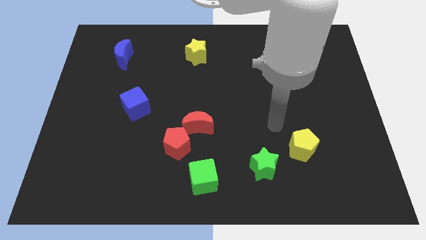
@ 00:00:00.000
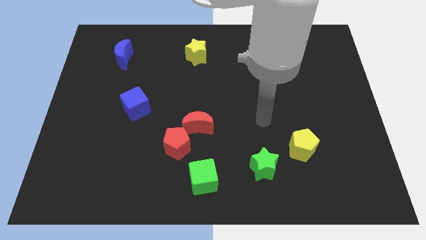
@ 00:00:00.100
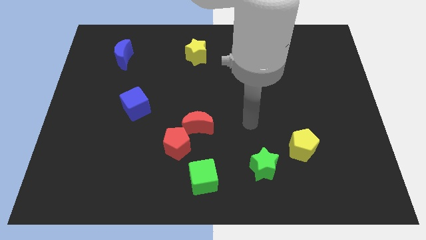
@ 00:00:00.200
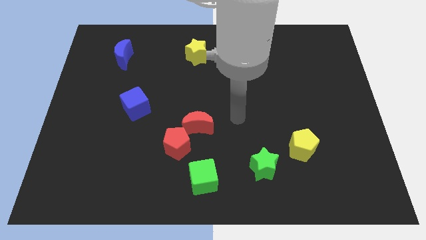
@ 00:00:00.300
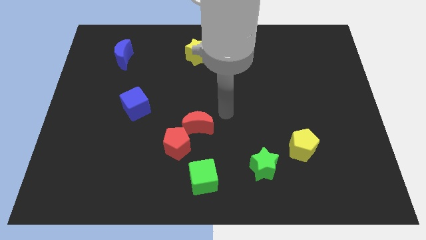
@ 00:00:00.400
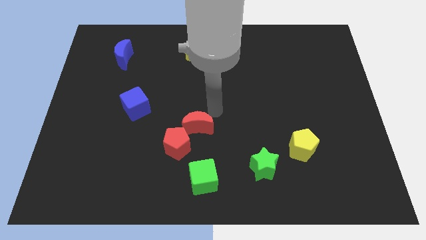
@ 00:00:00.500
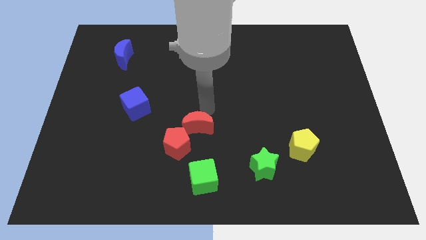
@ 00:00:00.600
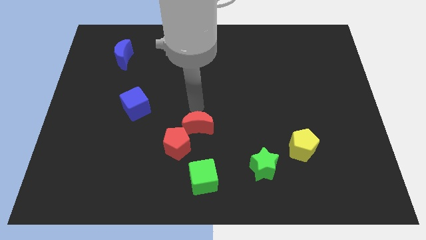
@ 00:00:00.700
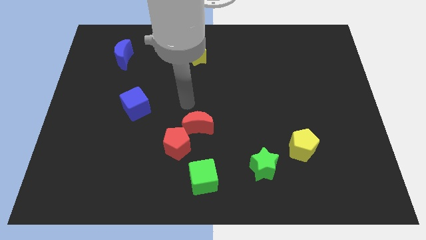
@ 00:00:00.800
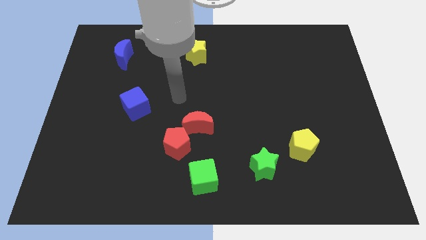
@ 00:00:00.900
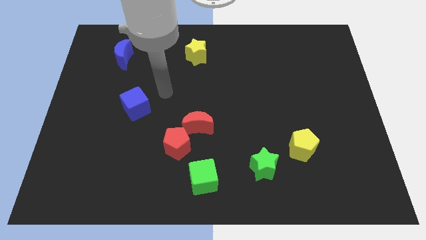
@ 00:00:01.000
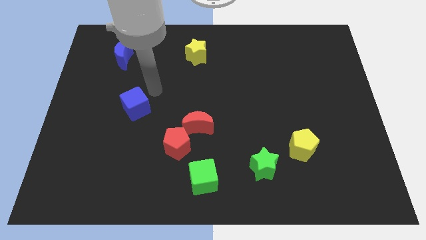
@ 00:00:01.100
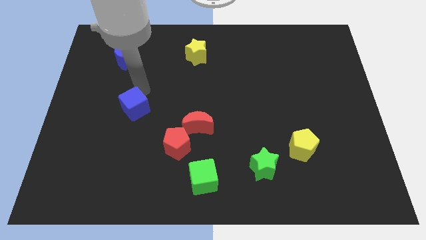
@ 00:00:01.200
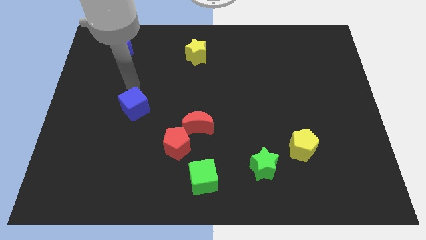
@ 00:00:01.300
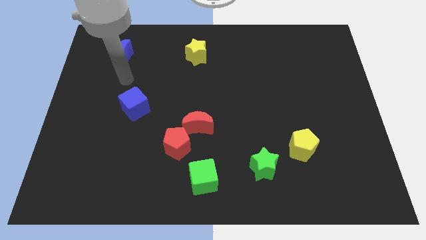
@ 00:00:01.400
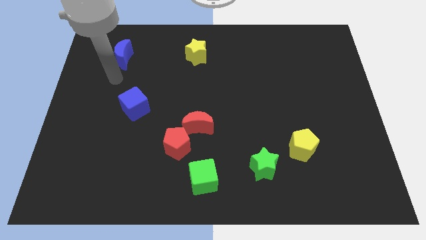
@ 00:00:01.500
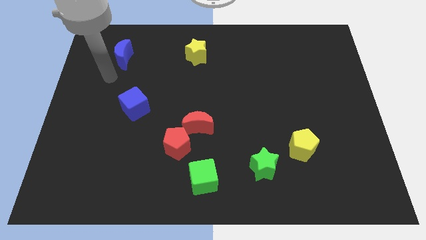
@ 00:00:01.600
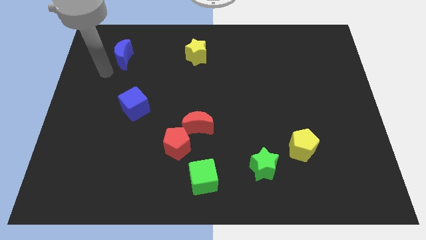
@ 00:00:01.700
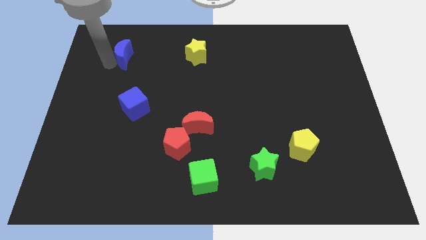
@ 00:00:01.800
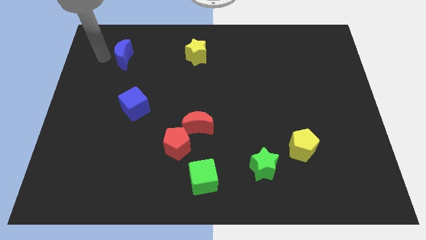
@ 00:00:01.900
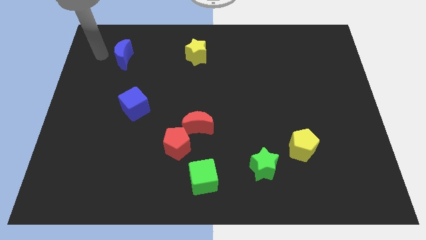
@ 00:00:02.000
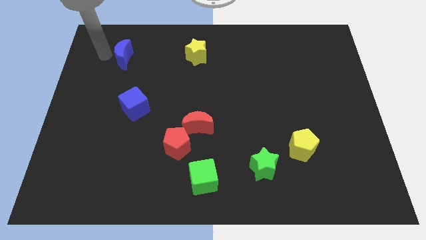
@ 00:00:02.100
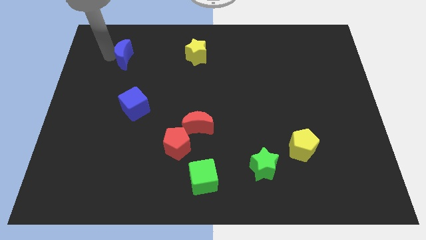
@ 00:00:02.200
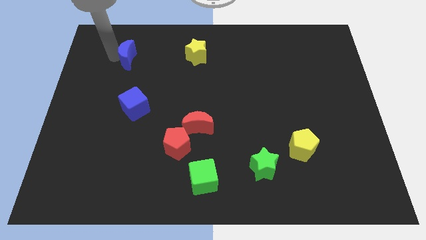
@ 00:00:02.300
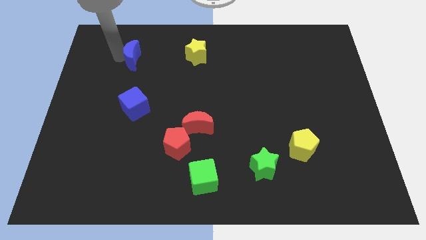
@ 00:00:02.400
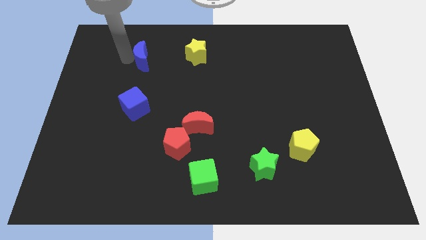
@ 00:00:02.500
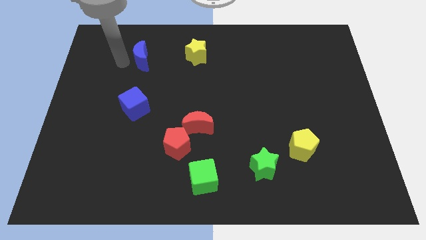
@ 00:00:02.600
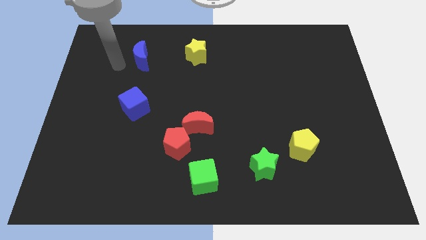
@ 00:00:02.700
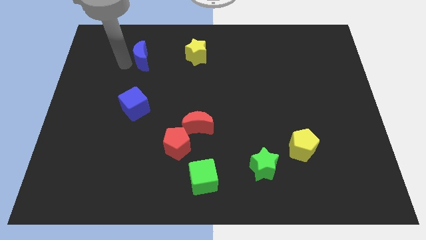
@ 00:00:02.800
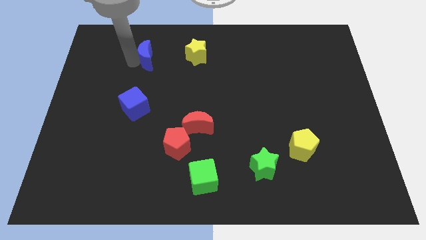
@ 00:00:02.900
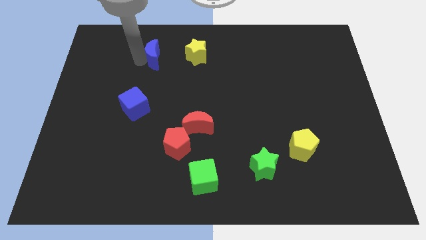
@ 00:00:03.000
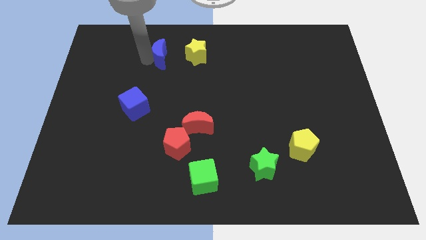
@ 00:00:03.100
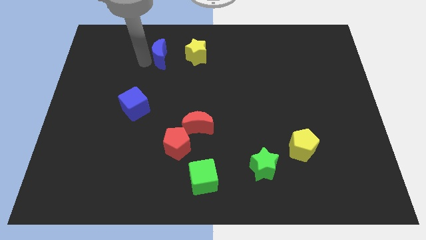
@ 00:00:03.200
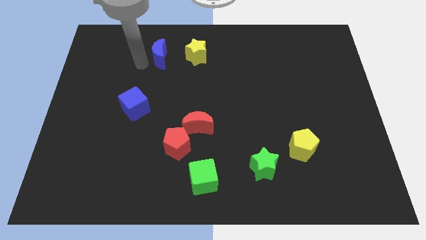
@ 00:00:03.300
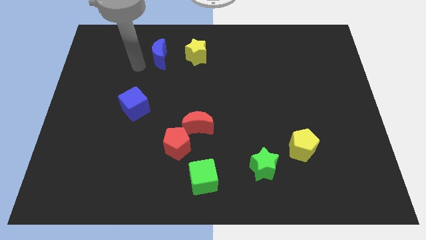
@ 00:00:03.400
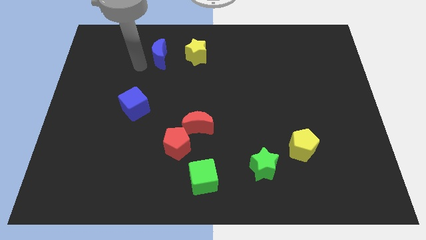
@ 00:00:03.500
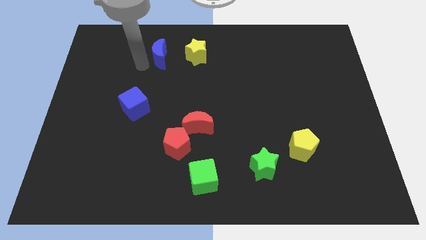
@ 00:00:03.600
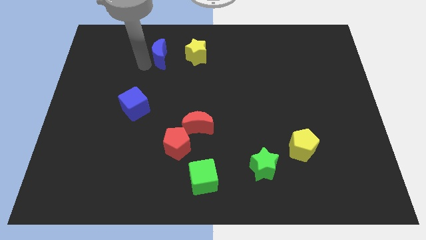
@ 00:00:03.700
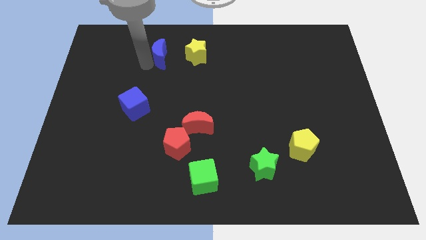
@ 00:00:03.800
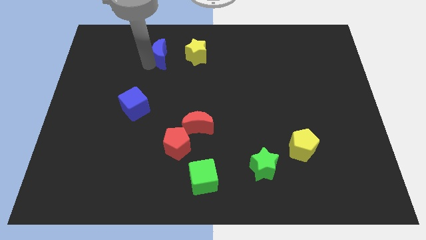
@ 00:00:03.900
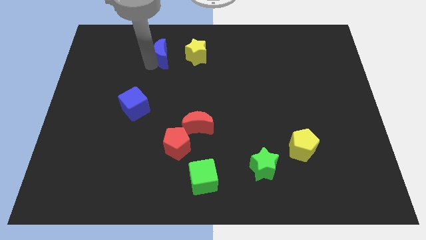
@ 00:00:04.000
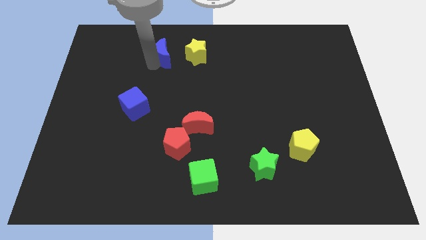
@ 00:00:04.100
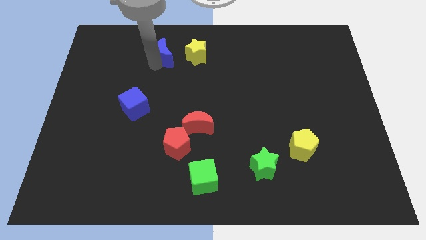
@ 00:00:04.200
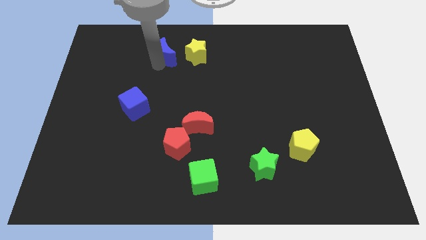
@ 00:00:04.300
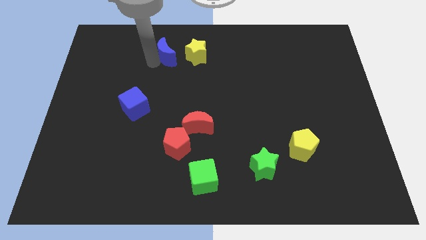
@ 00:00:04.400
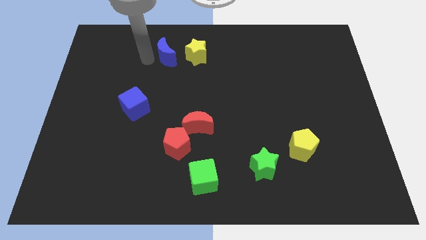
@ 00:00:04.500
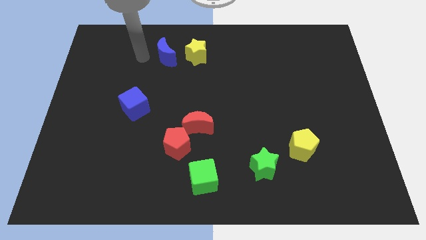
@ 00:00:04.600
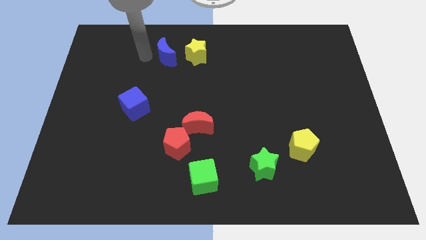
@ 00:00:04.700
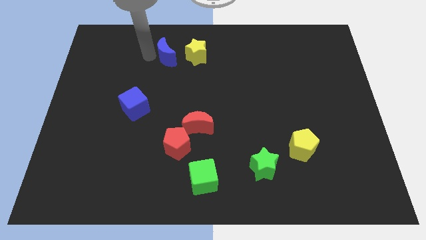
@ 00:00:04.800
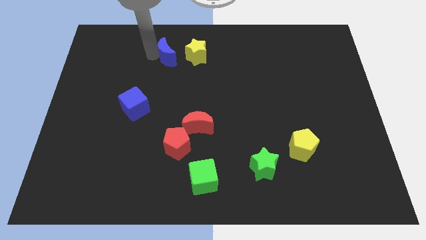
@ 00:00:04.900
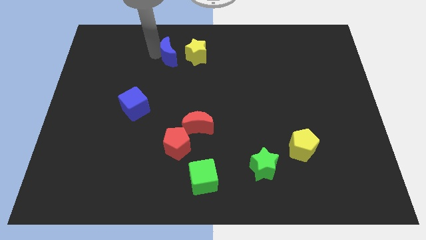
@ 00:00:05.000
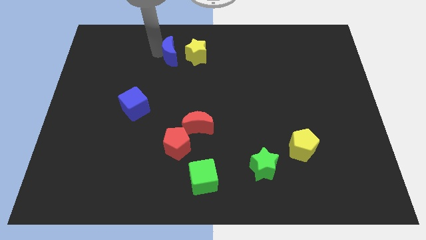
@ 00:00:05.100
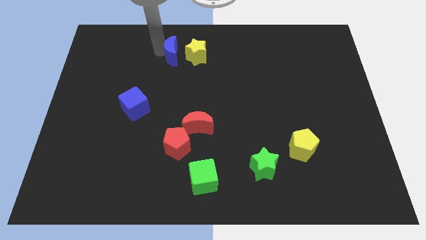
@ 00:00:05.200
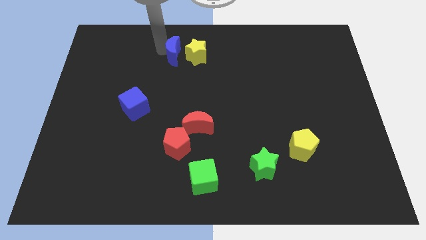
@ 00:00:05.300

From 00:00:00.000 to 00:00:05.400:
push the blue moon close to the yellow star

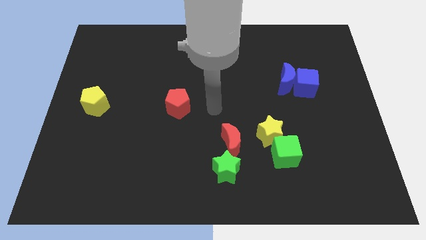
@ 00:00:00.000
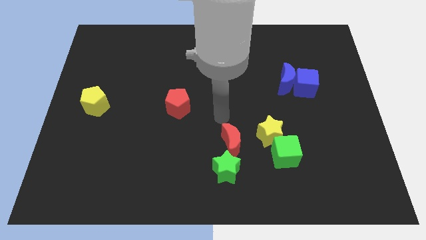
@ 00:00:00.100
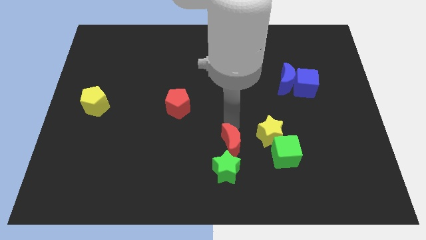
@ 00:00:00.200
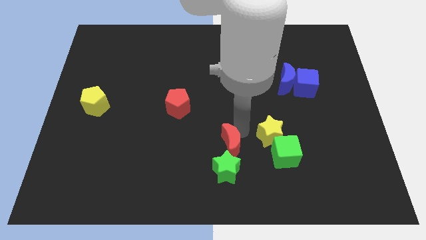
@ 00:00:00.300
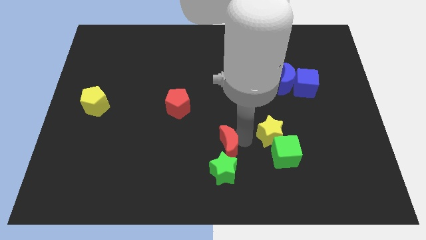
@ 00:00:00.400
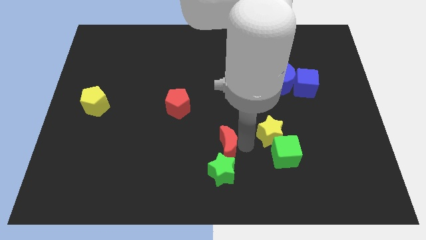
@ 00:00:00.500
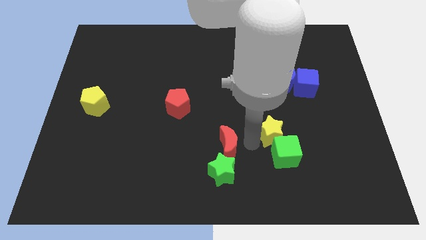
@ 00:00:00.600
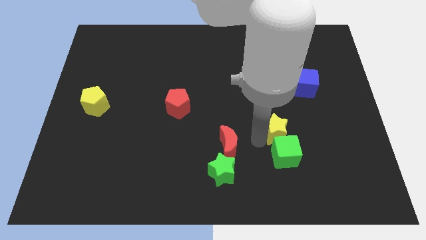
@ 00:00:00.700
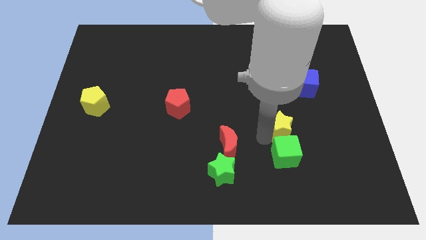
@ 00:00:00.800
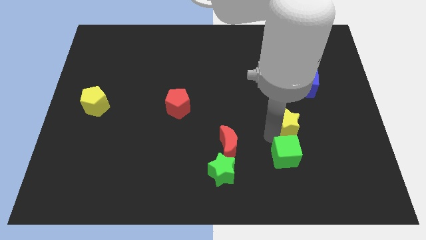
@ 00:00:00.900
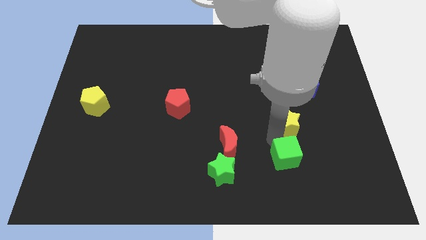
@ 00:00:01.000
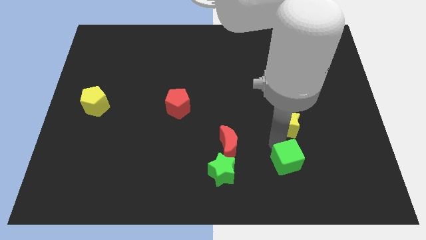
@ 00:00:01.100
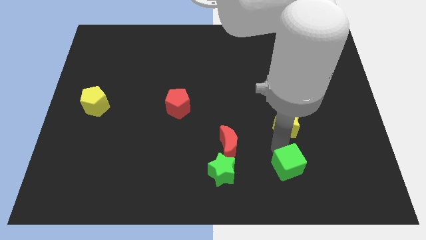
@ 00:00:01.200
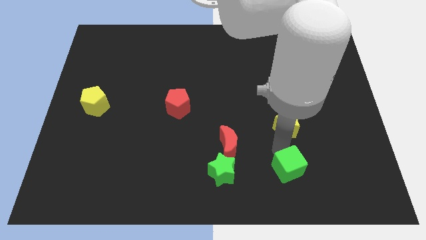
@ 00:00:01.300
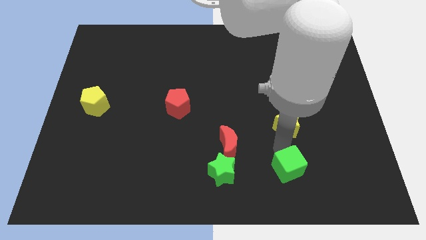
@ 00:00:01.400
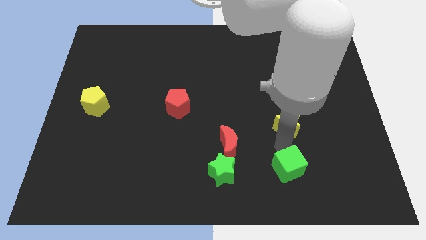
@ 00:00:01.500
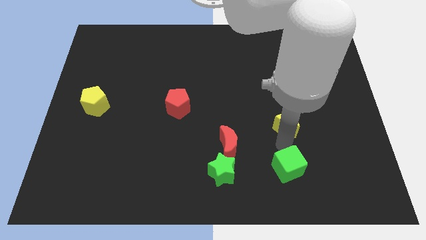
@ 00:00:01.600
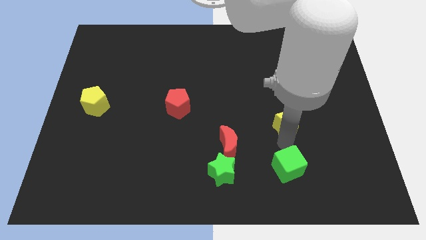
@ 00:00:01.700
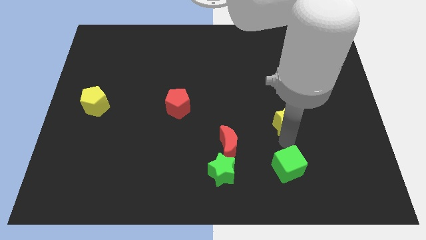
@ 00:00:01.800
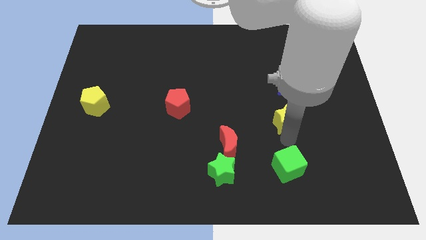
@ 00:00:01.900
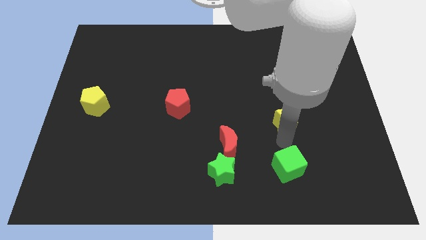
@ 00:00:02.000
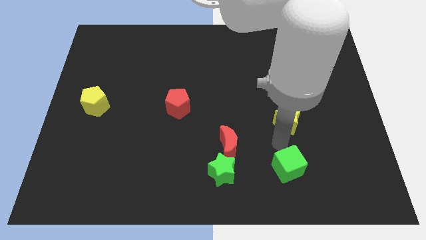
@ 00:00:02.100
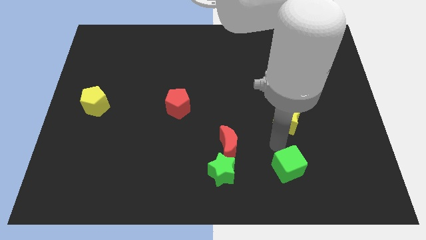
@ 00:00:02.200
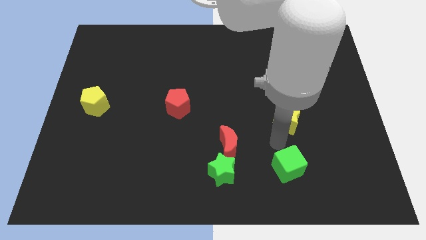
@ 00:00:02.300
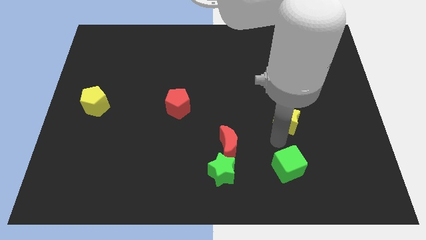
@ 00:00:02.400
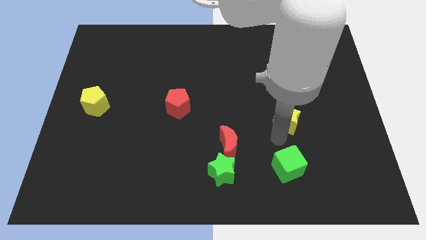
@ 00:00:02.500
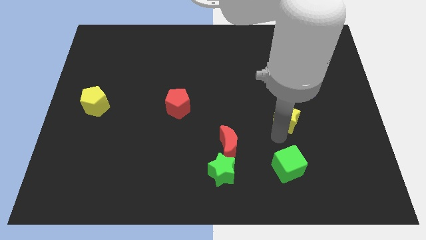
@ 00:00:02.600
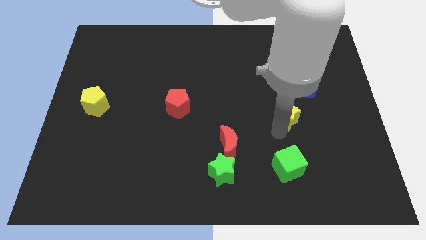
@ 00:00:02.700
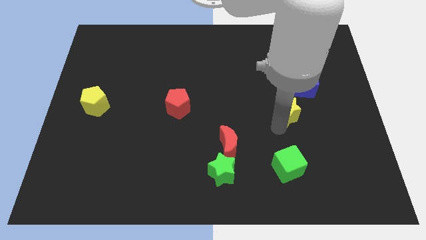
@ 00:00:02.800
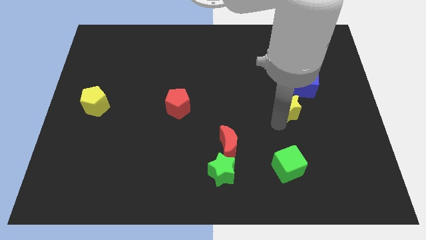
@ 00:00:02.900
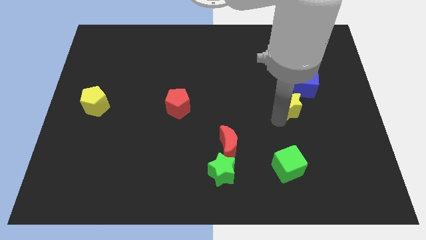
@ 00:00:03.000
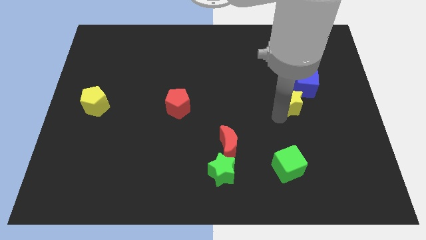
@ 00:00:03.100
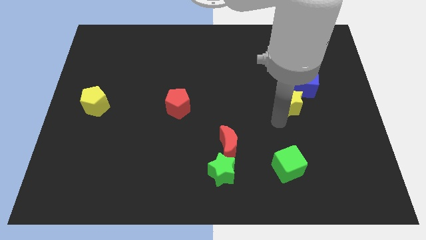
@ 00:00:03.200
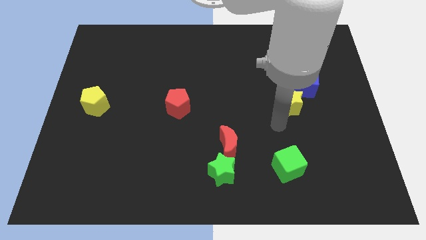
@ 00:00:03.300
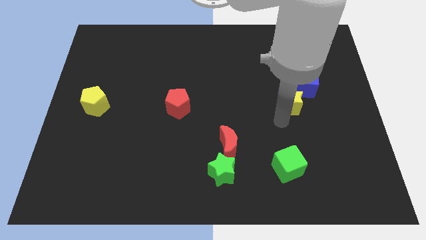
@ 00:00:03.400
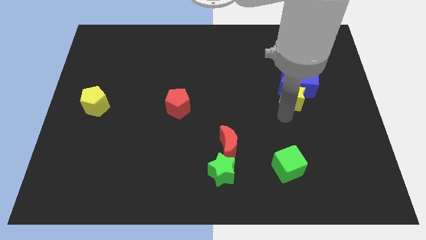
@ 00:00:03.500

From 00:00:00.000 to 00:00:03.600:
slide the yellow star next to the blue cube
